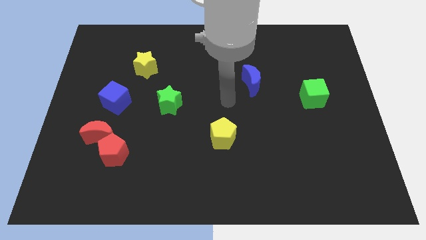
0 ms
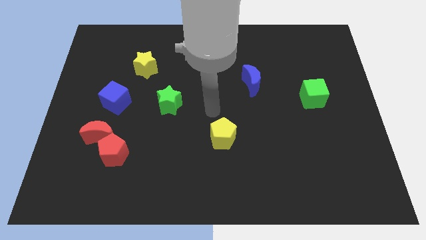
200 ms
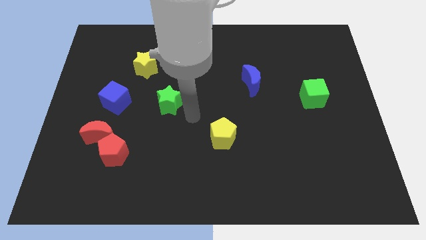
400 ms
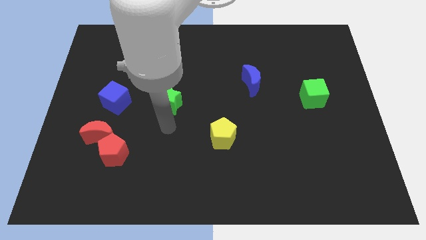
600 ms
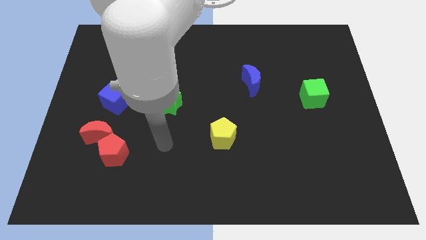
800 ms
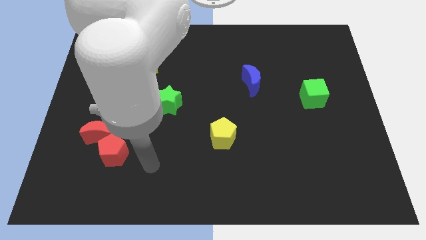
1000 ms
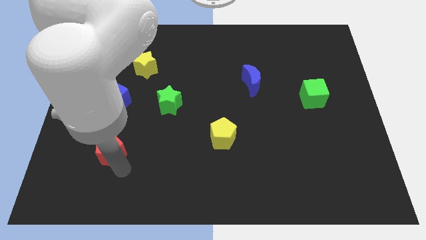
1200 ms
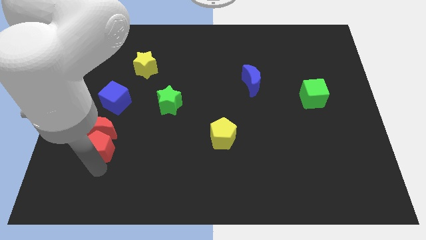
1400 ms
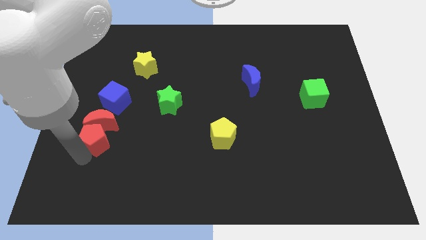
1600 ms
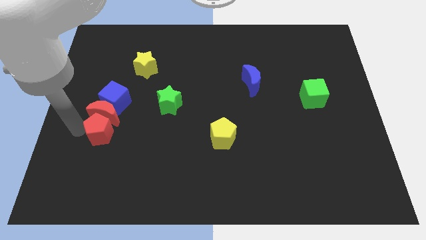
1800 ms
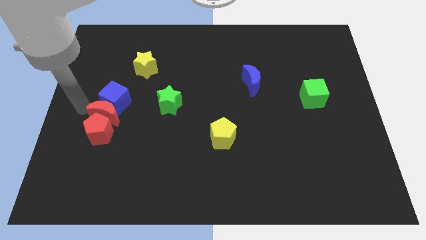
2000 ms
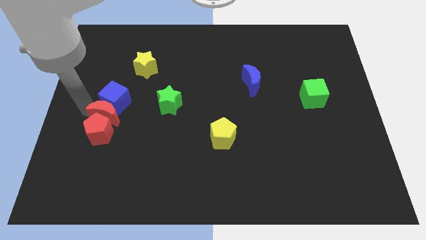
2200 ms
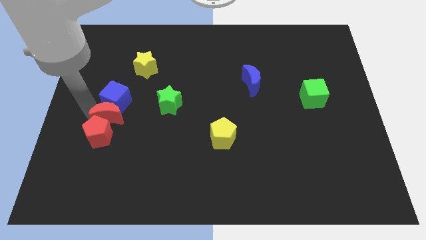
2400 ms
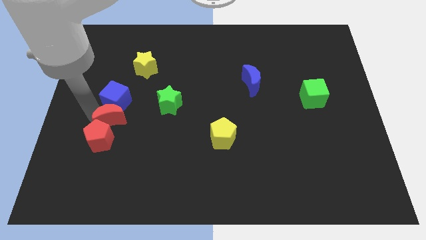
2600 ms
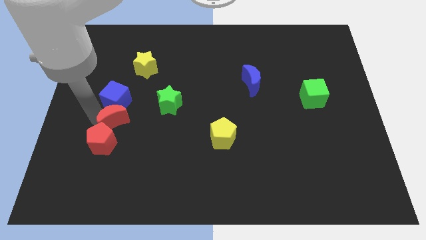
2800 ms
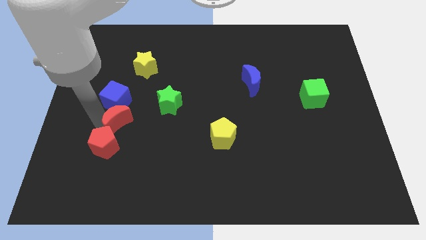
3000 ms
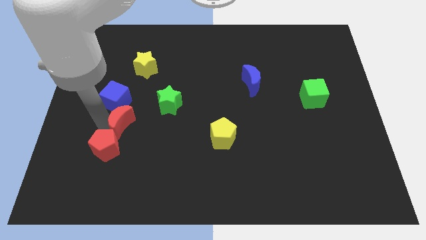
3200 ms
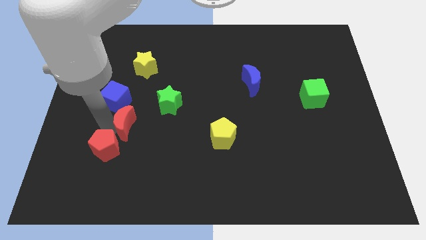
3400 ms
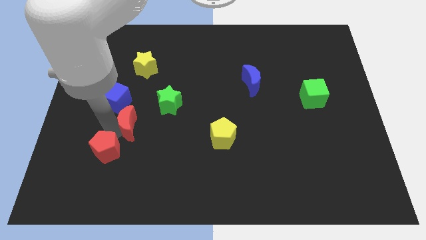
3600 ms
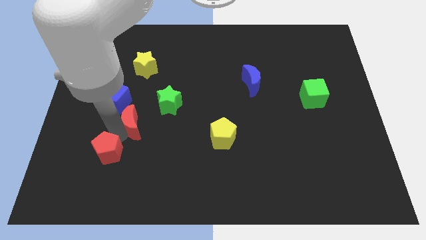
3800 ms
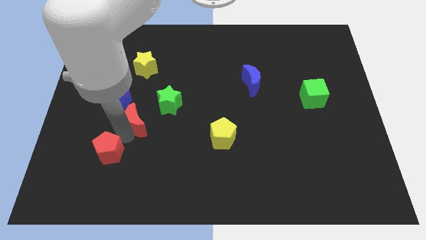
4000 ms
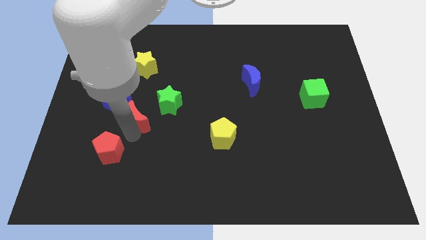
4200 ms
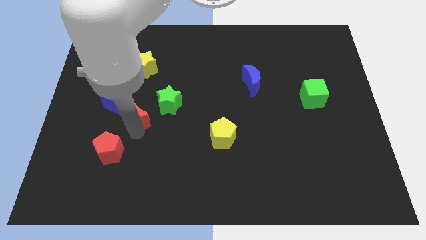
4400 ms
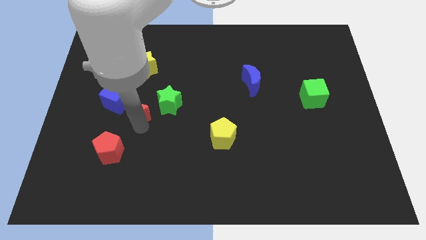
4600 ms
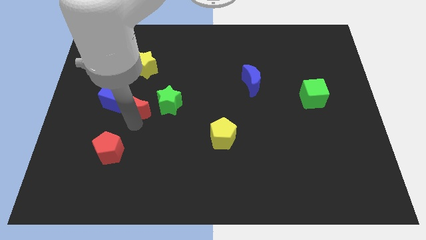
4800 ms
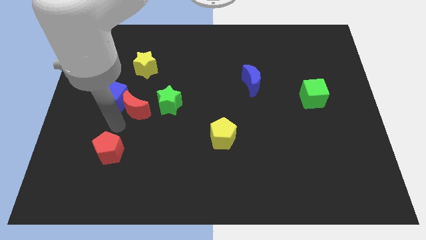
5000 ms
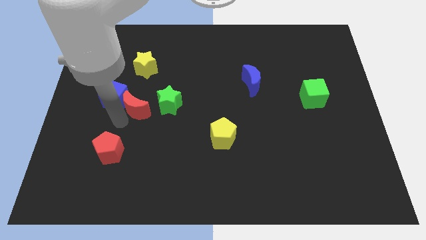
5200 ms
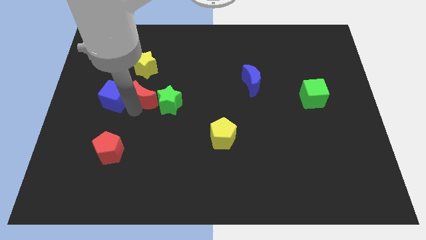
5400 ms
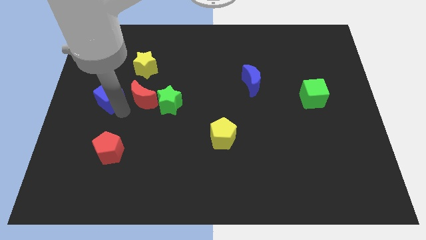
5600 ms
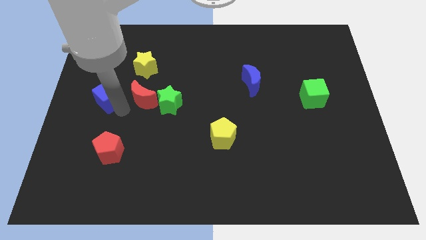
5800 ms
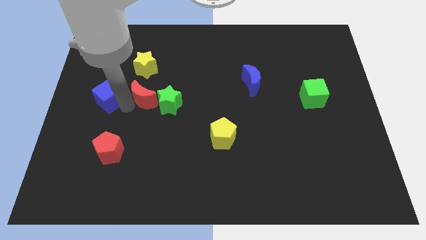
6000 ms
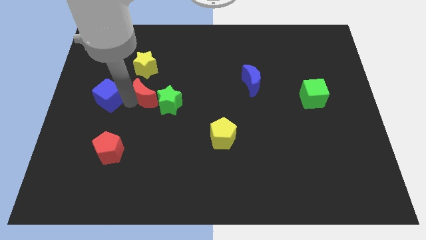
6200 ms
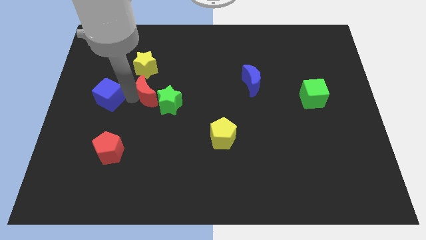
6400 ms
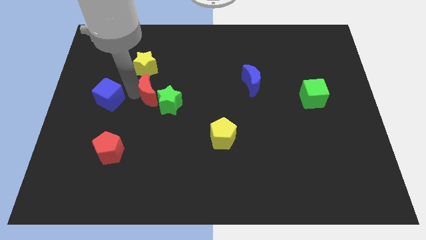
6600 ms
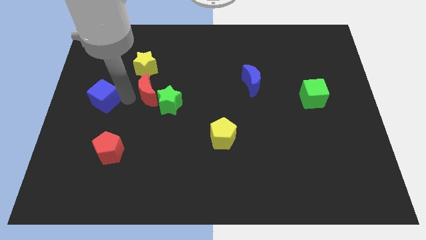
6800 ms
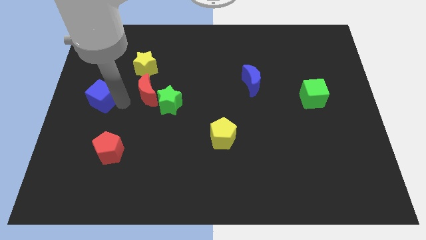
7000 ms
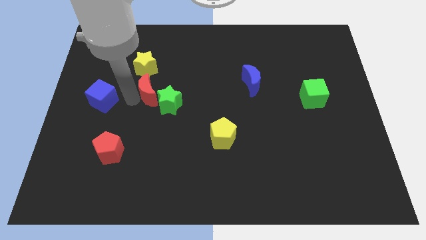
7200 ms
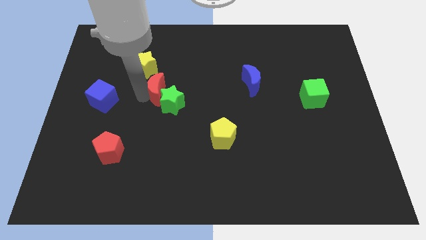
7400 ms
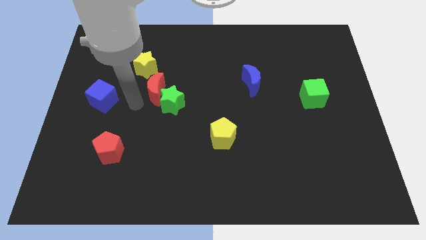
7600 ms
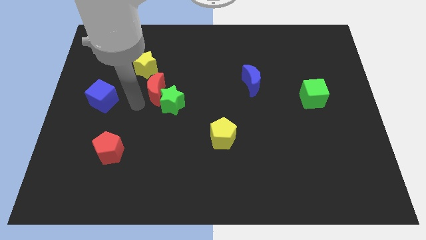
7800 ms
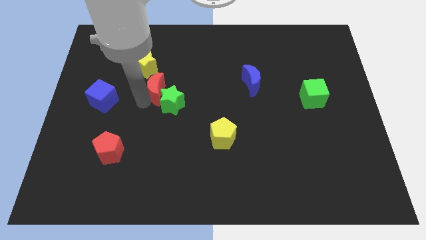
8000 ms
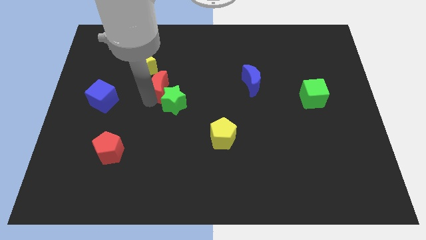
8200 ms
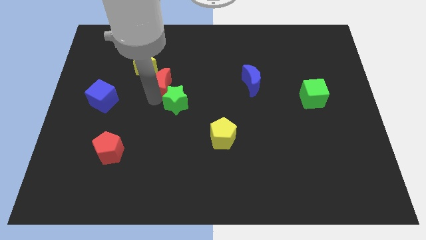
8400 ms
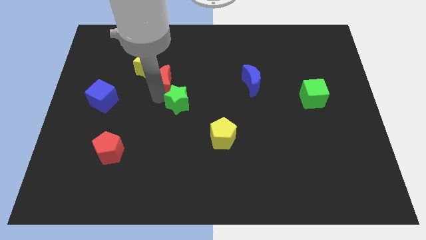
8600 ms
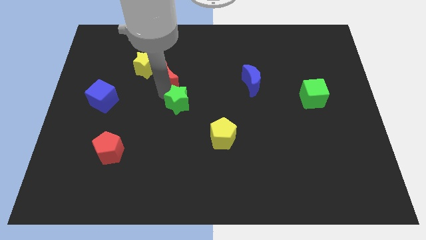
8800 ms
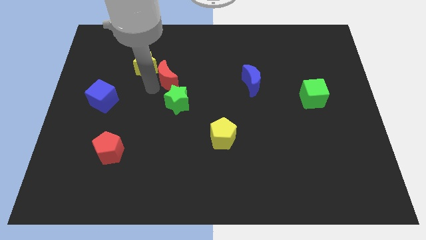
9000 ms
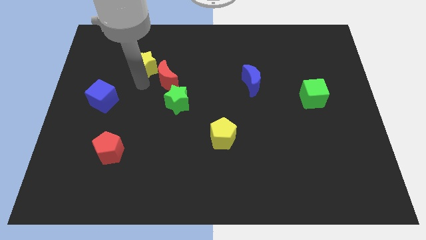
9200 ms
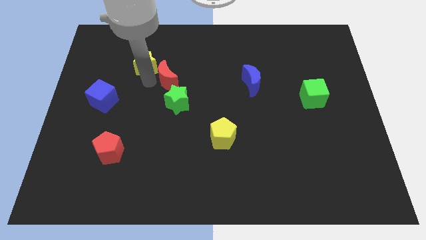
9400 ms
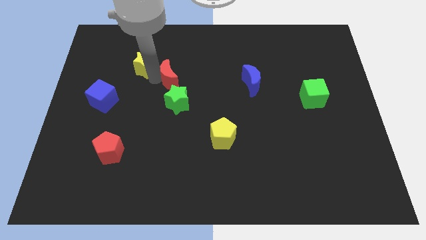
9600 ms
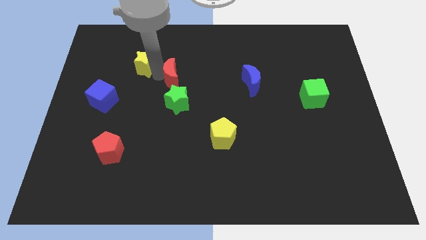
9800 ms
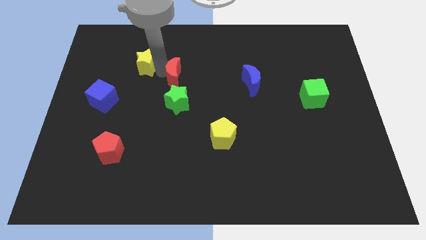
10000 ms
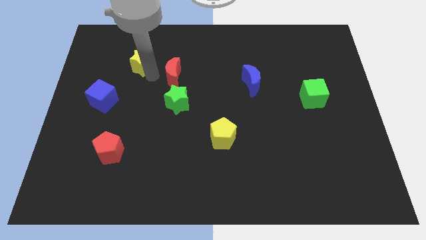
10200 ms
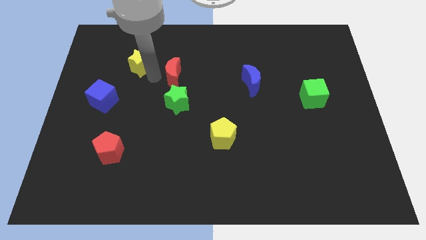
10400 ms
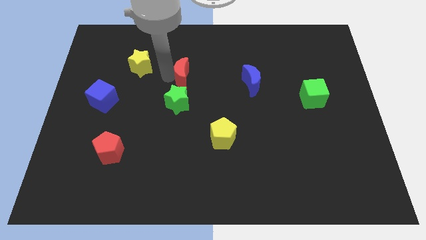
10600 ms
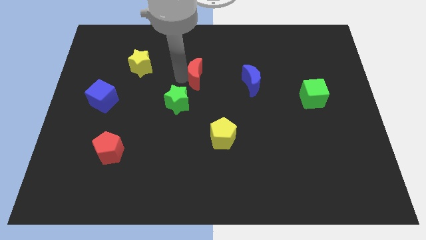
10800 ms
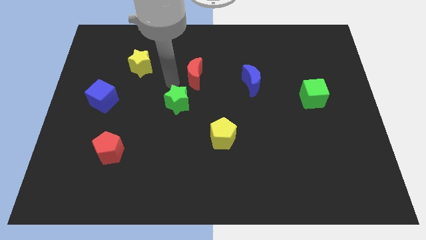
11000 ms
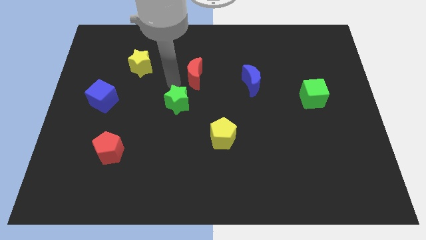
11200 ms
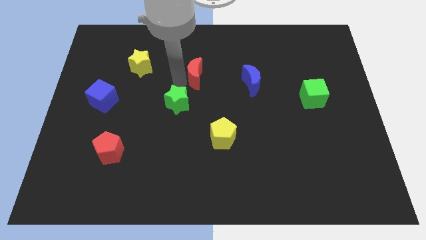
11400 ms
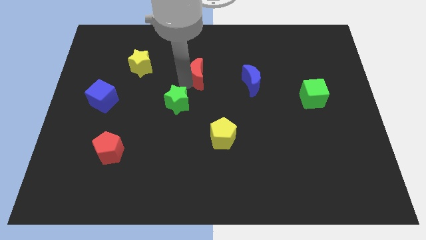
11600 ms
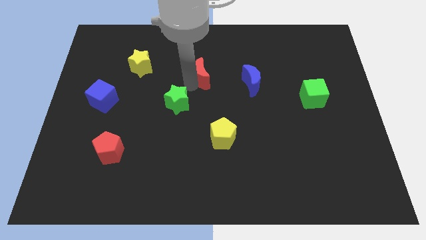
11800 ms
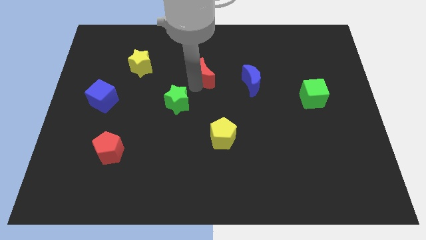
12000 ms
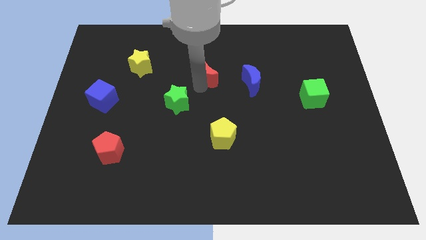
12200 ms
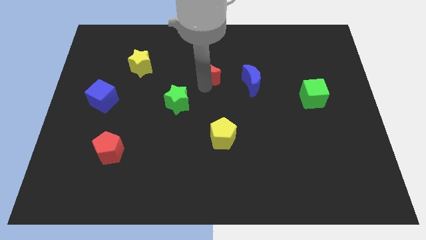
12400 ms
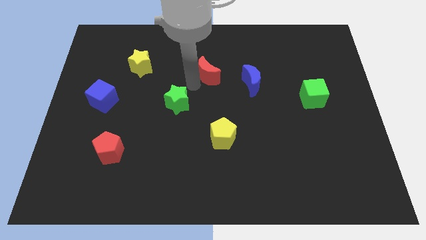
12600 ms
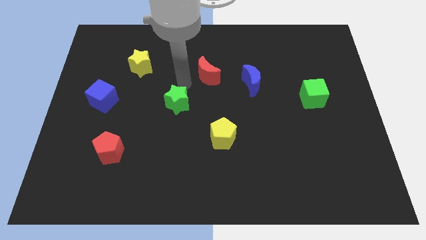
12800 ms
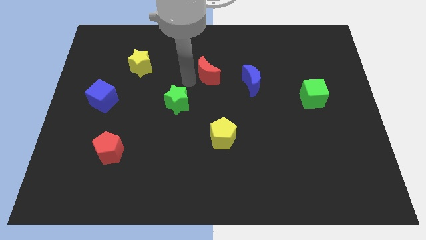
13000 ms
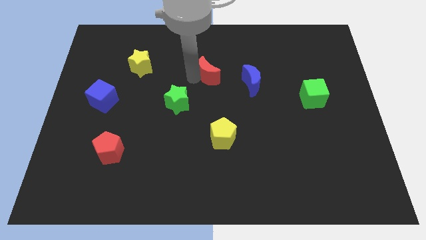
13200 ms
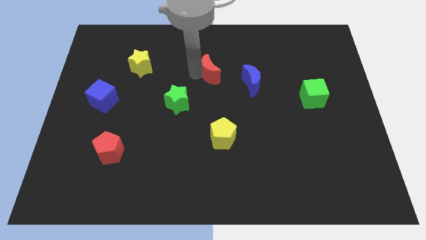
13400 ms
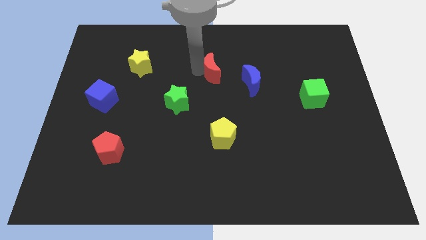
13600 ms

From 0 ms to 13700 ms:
push the red moon to the top left side of the blue moon

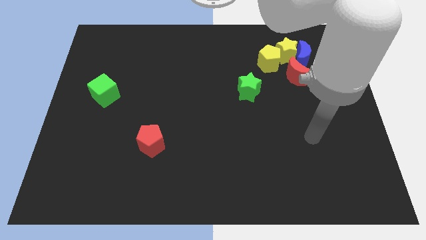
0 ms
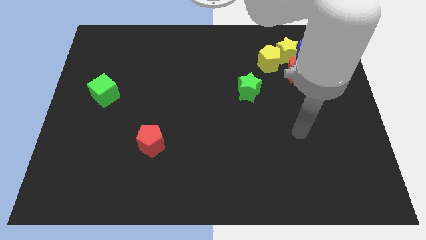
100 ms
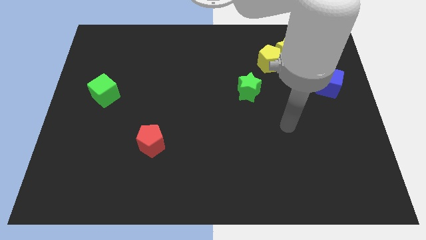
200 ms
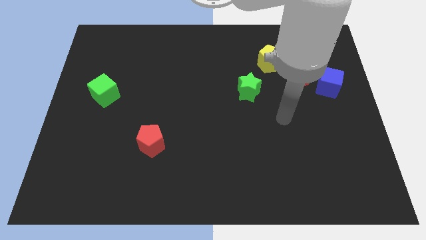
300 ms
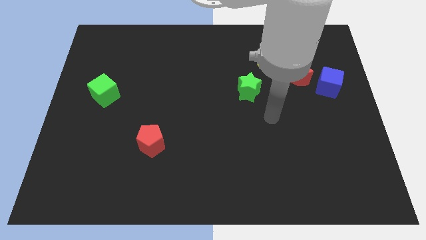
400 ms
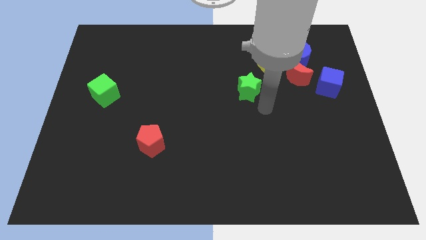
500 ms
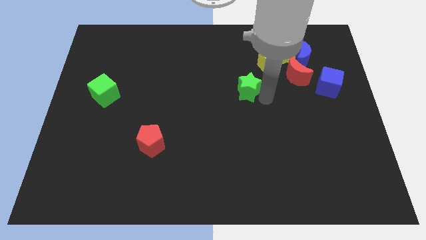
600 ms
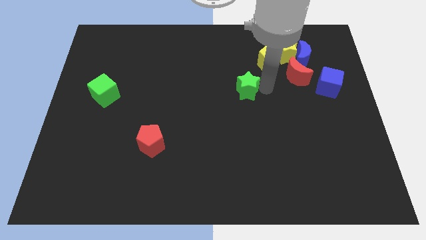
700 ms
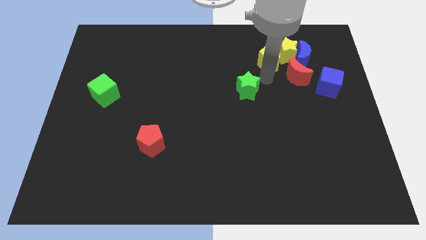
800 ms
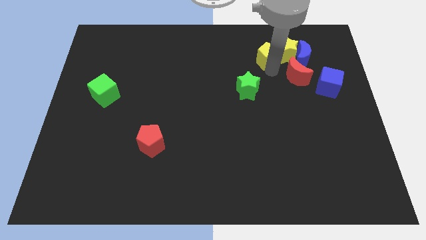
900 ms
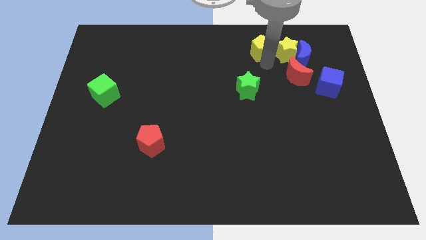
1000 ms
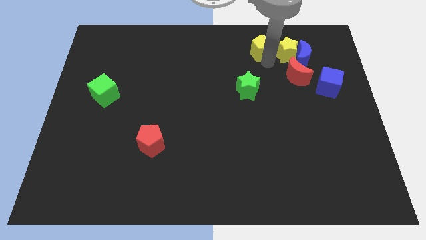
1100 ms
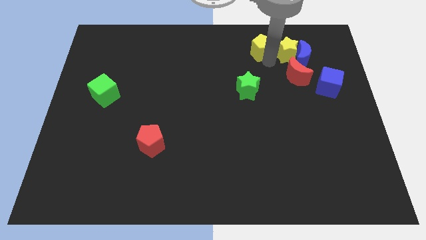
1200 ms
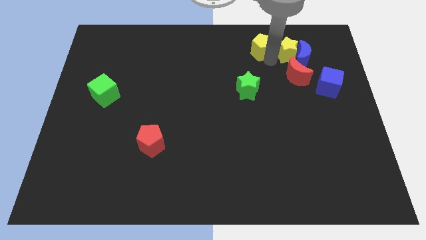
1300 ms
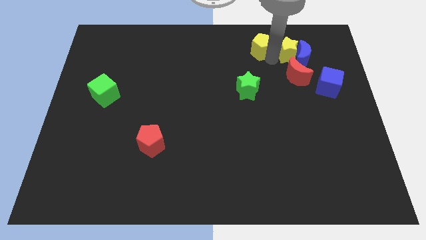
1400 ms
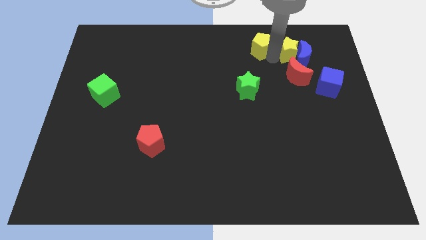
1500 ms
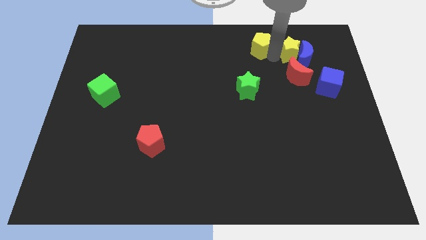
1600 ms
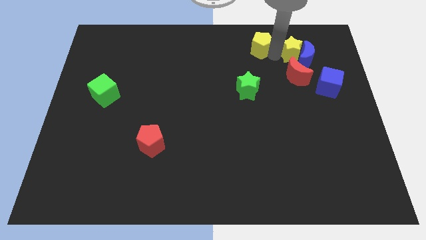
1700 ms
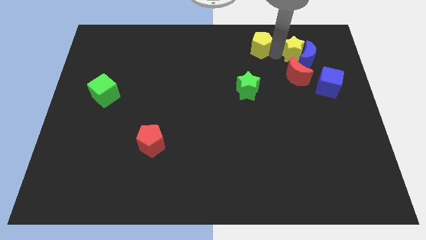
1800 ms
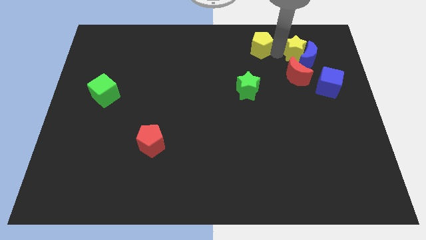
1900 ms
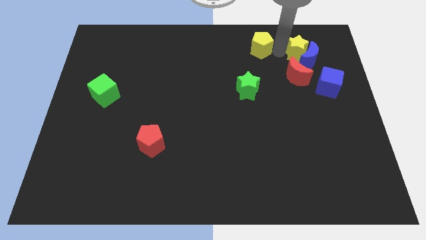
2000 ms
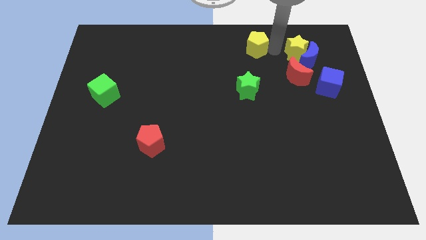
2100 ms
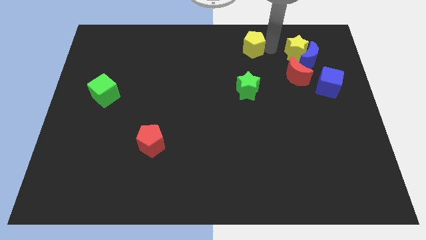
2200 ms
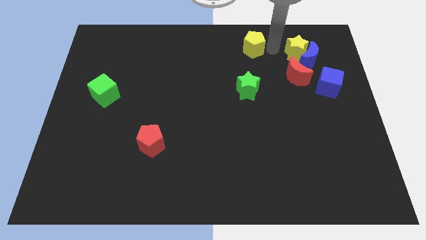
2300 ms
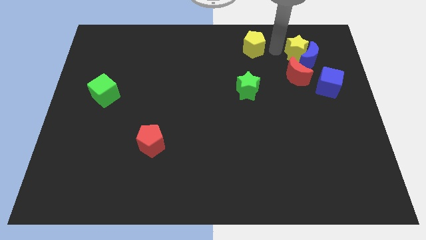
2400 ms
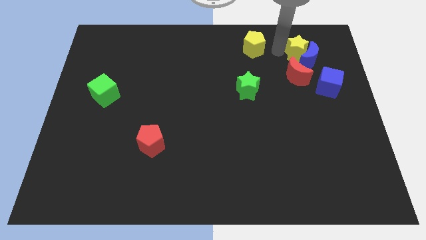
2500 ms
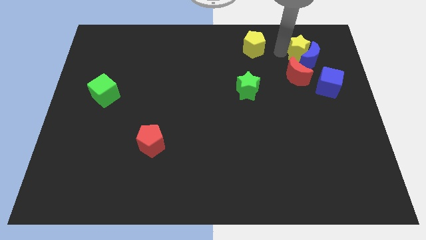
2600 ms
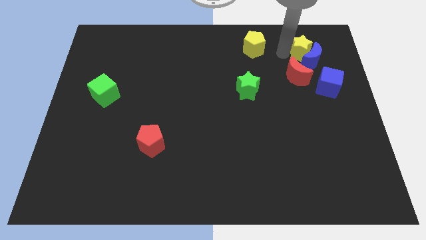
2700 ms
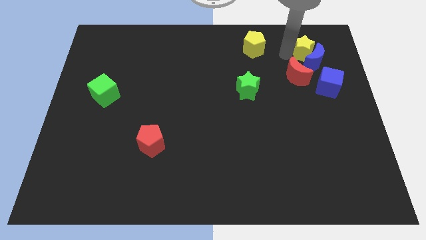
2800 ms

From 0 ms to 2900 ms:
put the yellow star above the blue cube
